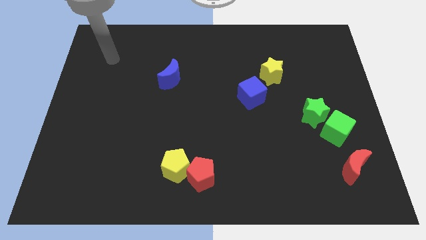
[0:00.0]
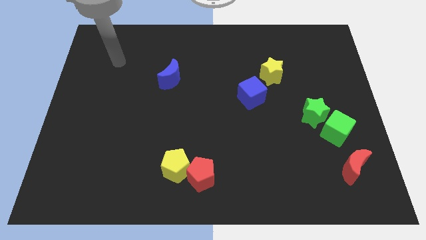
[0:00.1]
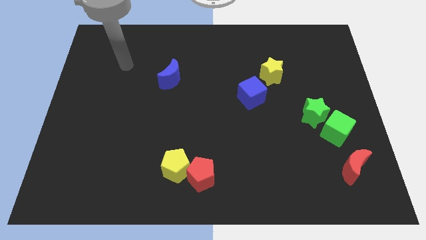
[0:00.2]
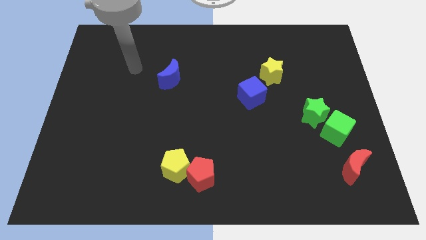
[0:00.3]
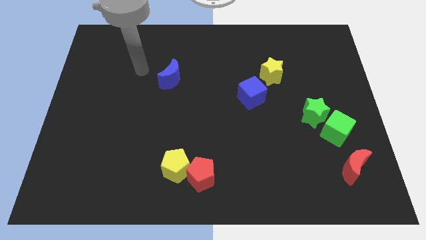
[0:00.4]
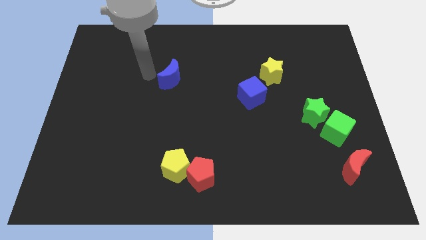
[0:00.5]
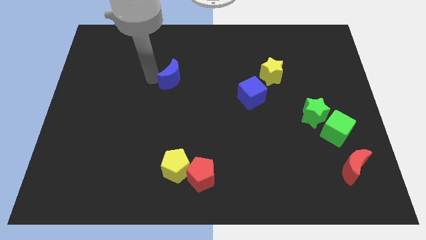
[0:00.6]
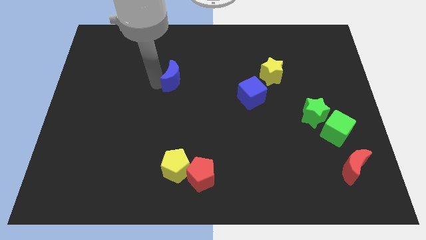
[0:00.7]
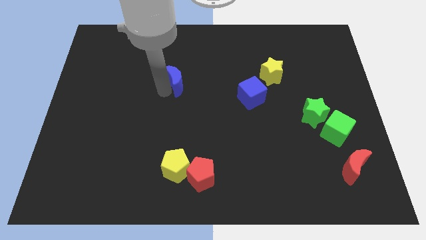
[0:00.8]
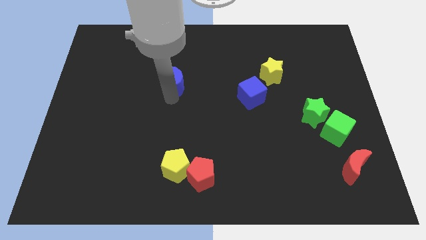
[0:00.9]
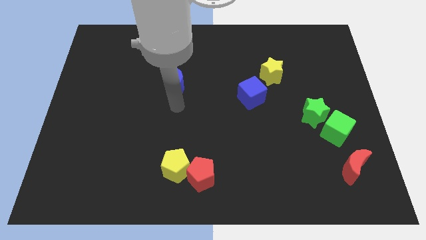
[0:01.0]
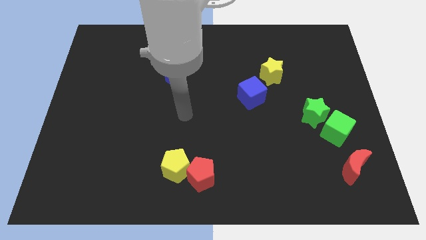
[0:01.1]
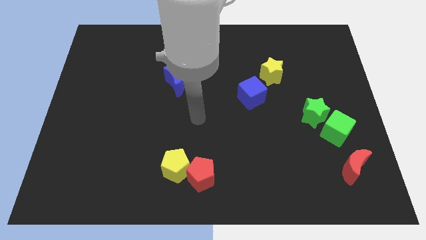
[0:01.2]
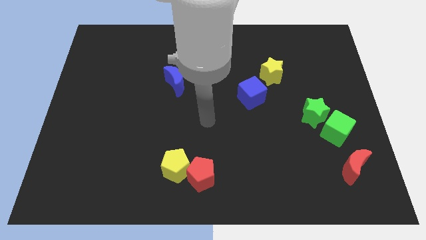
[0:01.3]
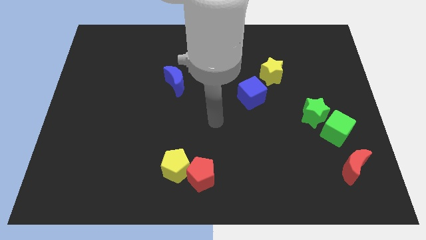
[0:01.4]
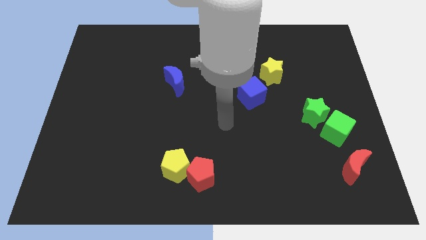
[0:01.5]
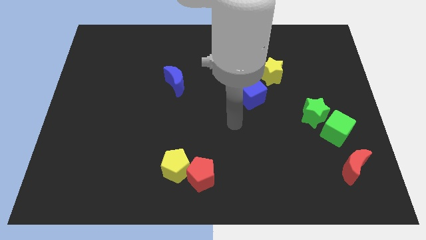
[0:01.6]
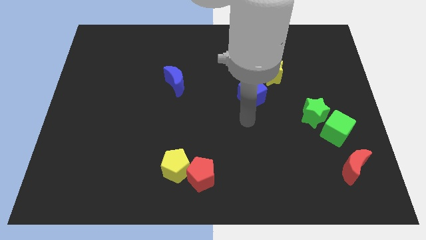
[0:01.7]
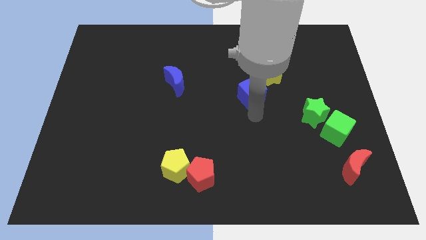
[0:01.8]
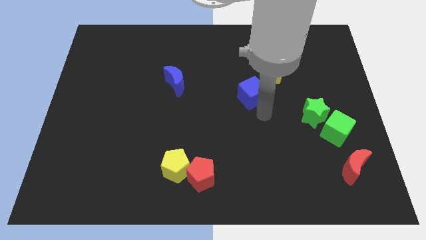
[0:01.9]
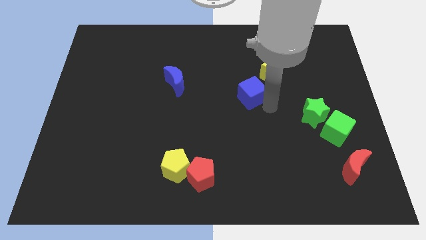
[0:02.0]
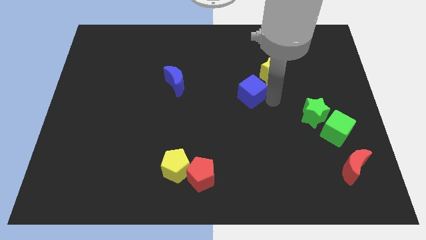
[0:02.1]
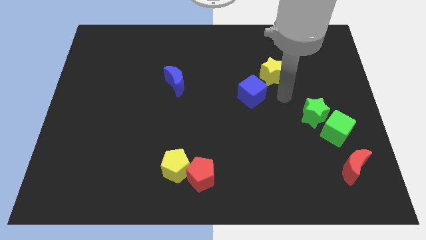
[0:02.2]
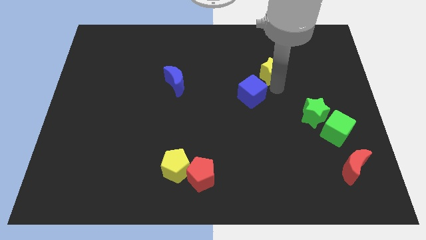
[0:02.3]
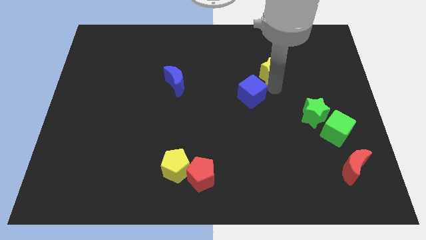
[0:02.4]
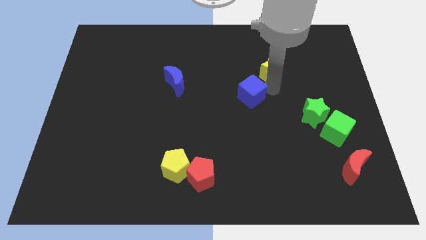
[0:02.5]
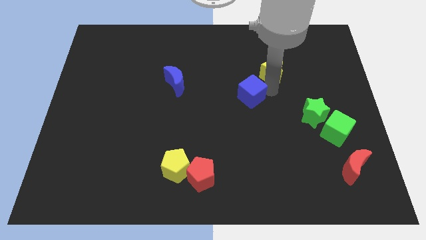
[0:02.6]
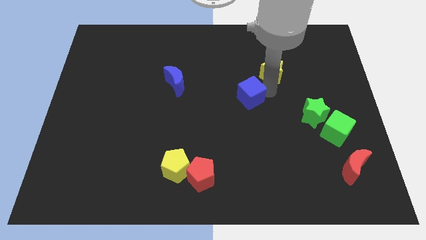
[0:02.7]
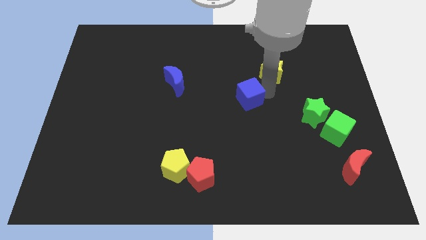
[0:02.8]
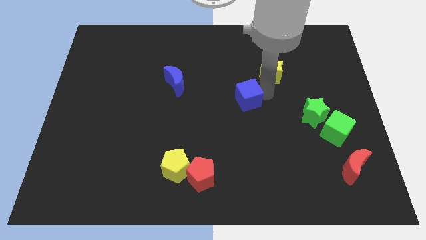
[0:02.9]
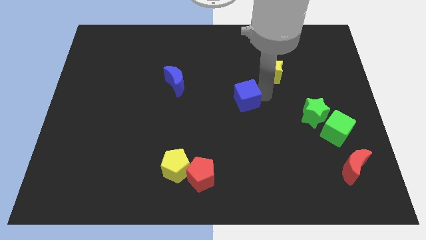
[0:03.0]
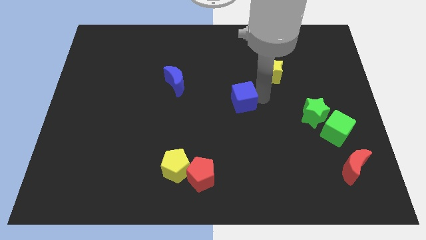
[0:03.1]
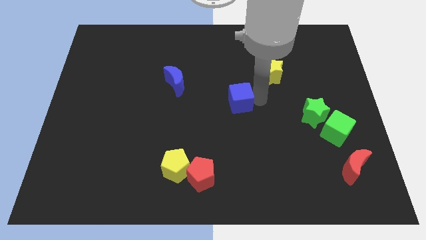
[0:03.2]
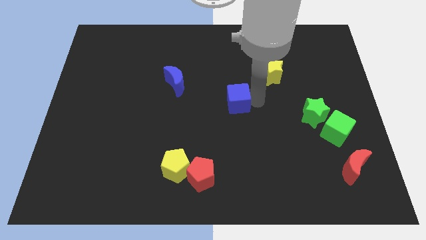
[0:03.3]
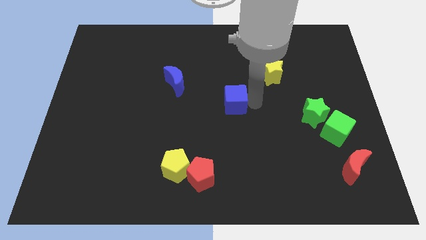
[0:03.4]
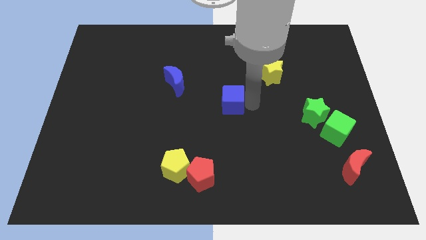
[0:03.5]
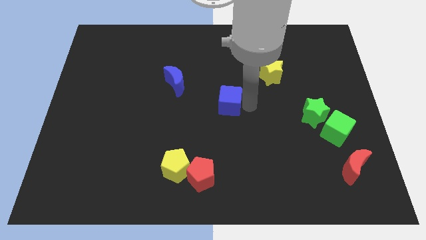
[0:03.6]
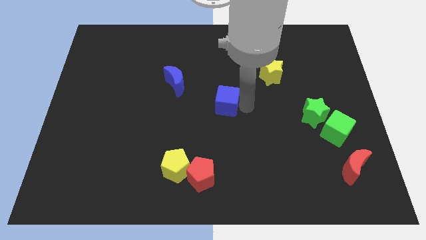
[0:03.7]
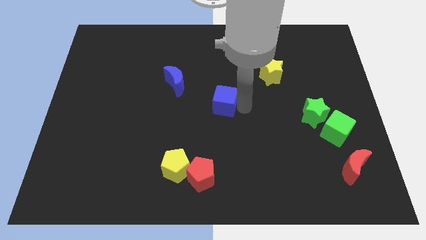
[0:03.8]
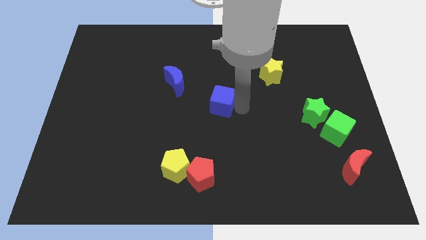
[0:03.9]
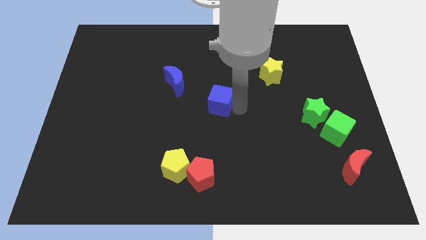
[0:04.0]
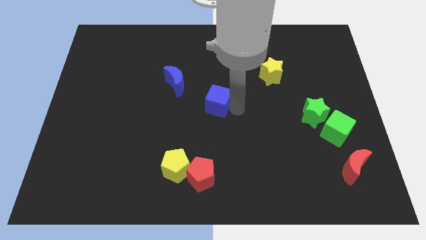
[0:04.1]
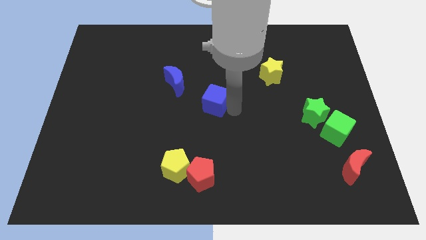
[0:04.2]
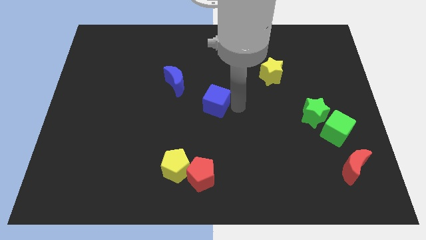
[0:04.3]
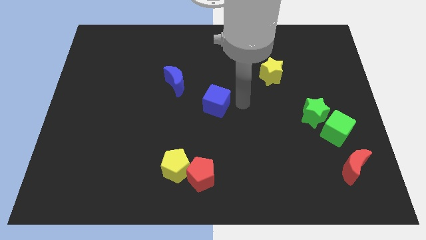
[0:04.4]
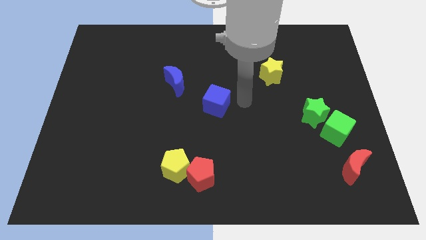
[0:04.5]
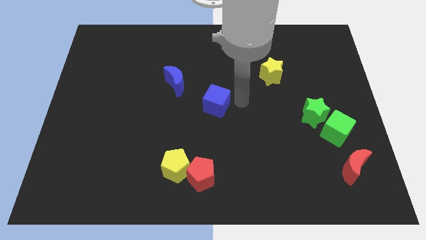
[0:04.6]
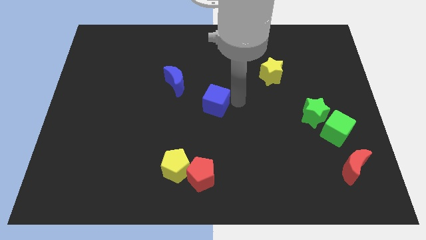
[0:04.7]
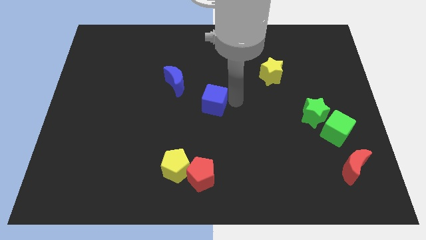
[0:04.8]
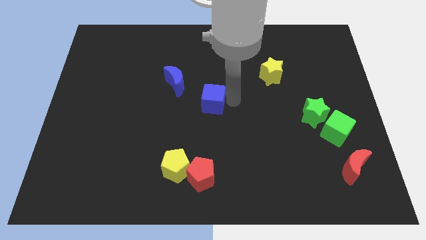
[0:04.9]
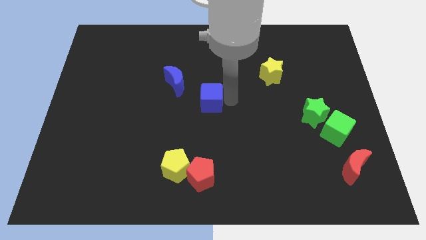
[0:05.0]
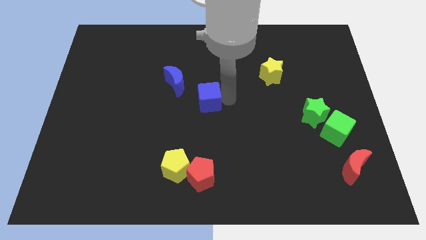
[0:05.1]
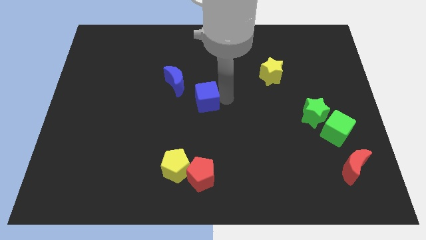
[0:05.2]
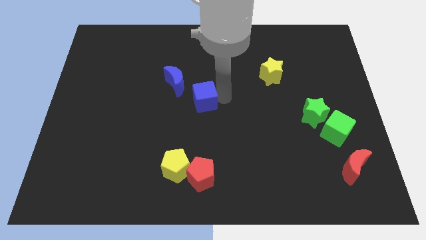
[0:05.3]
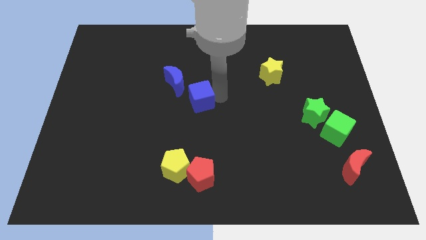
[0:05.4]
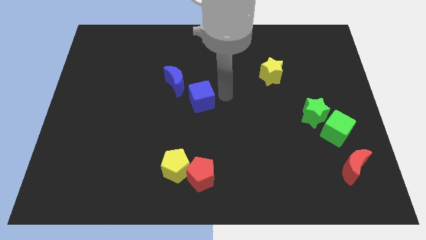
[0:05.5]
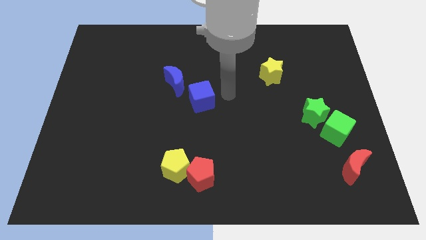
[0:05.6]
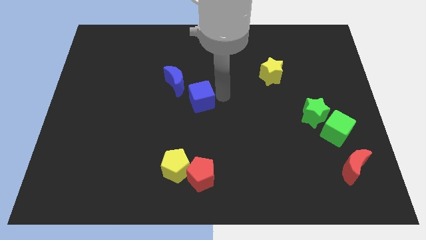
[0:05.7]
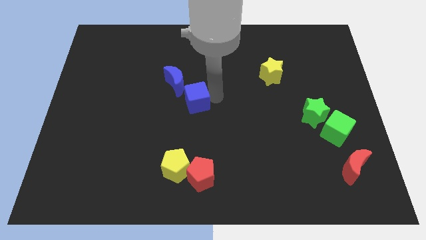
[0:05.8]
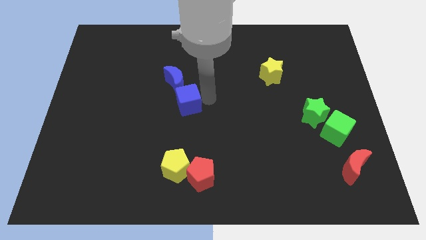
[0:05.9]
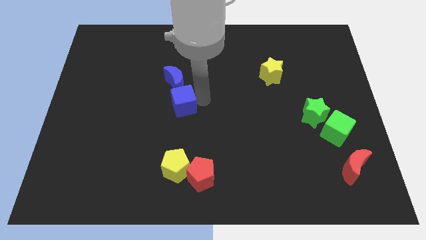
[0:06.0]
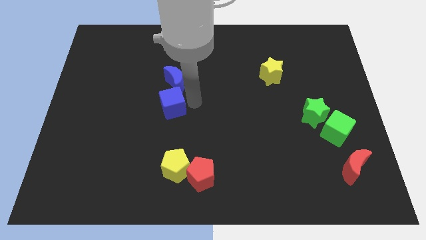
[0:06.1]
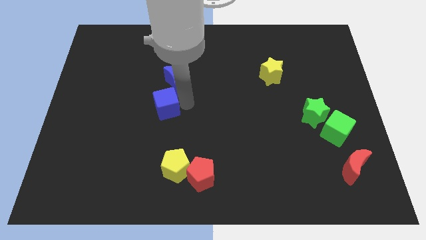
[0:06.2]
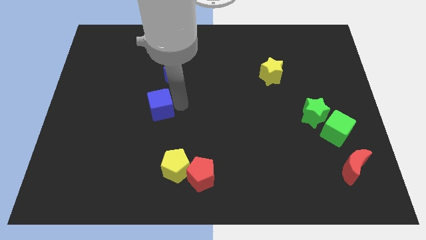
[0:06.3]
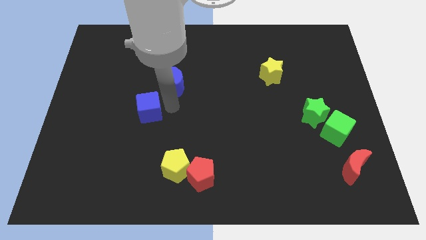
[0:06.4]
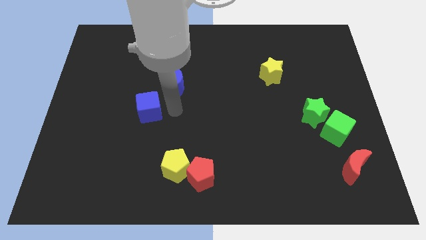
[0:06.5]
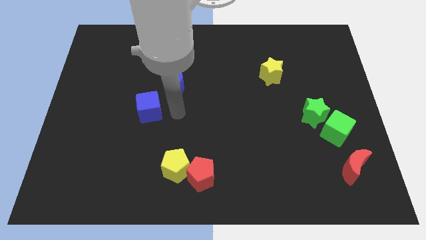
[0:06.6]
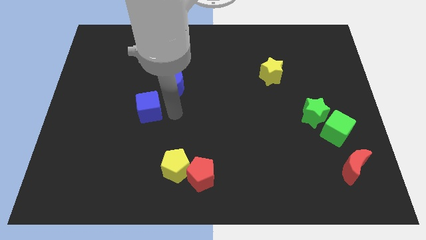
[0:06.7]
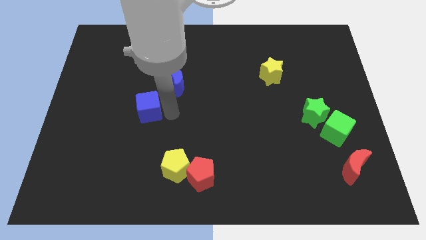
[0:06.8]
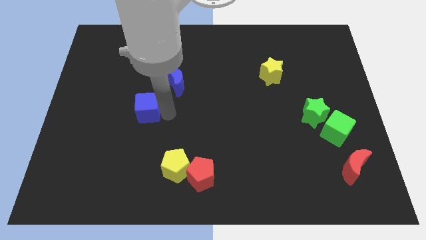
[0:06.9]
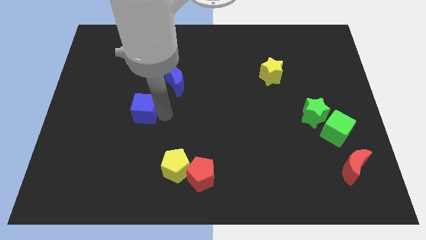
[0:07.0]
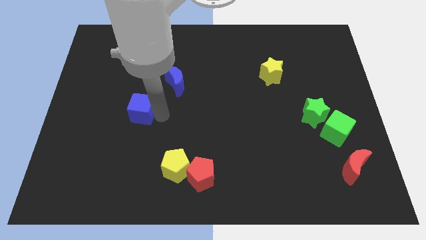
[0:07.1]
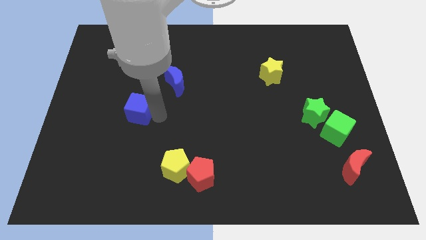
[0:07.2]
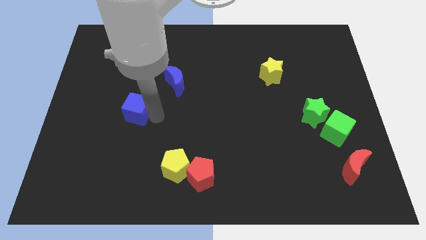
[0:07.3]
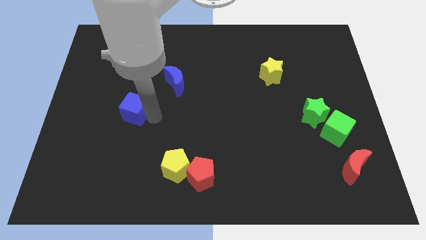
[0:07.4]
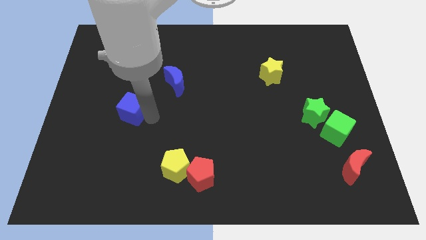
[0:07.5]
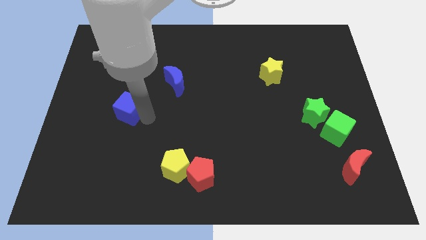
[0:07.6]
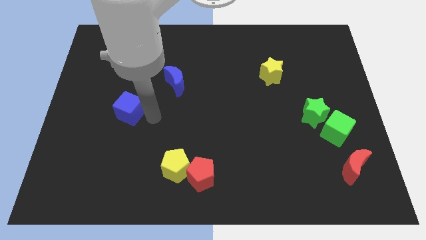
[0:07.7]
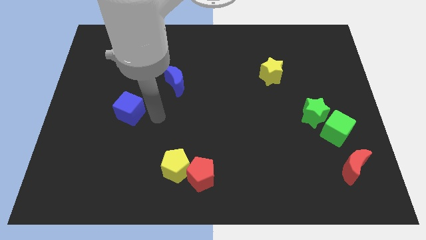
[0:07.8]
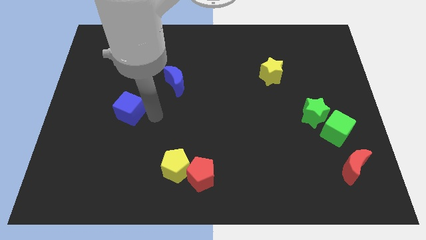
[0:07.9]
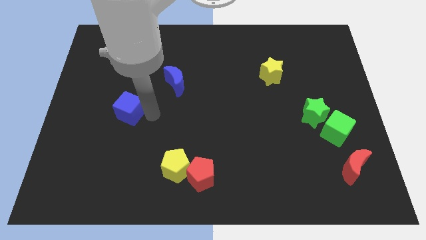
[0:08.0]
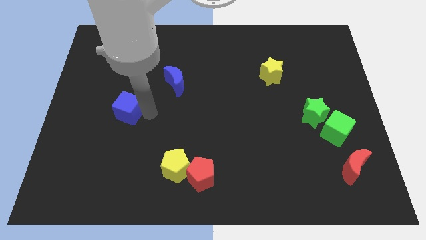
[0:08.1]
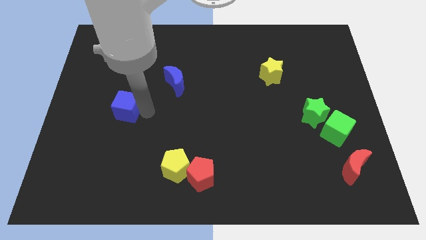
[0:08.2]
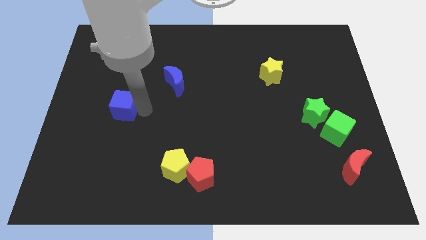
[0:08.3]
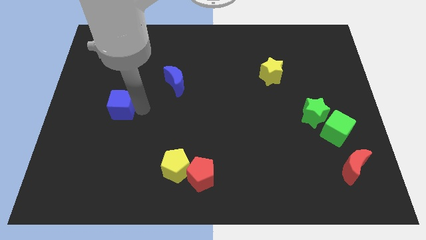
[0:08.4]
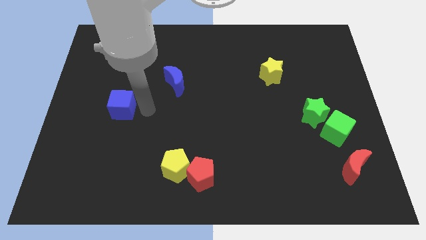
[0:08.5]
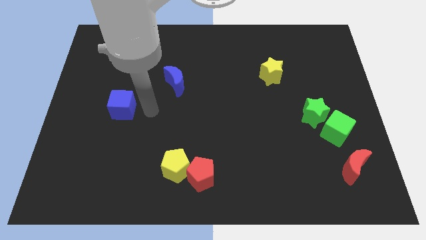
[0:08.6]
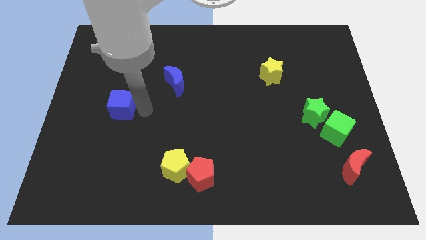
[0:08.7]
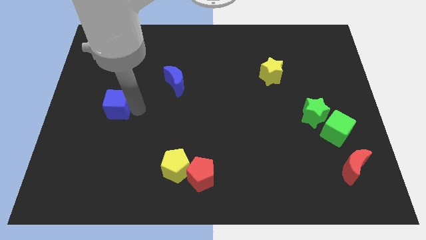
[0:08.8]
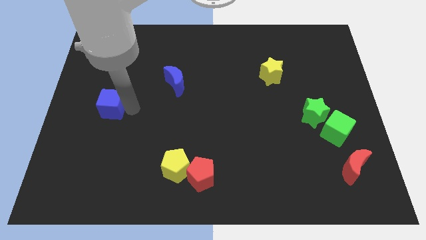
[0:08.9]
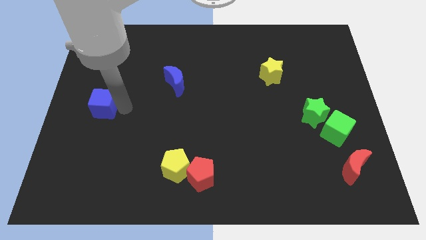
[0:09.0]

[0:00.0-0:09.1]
put the blue cube to the left side of the board
